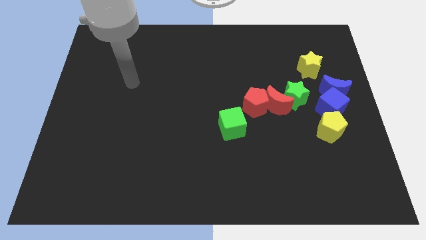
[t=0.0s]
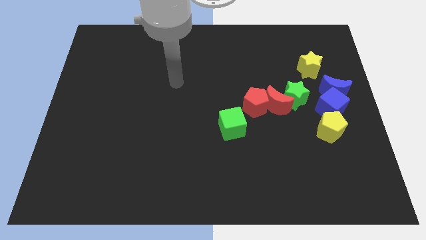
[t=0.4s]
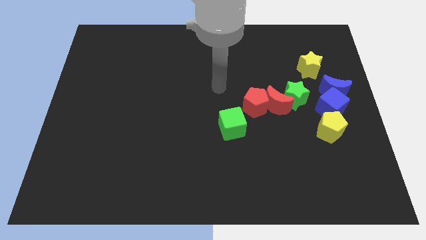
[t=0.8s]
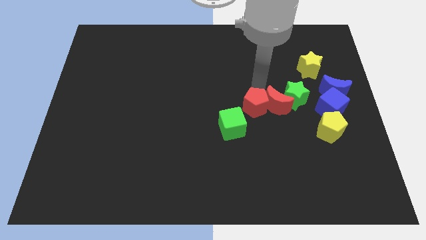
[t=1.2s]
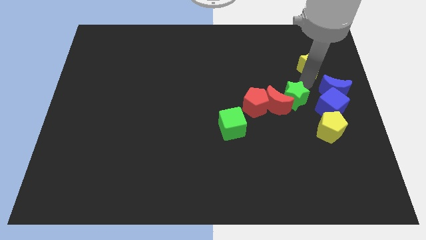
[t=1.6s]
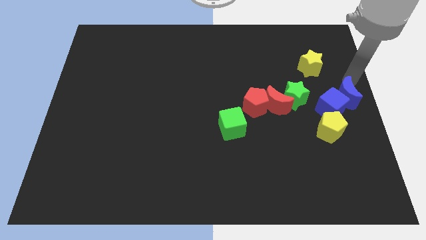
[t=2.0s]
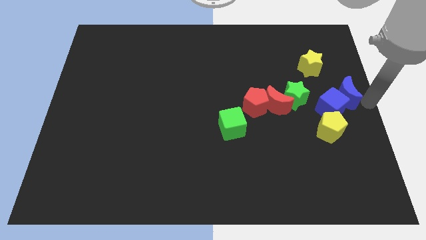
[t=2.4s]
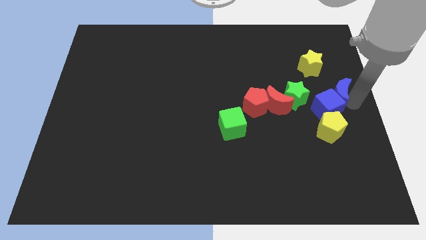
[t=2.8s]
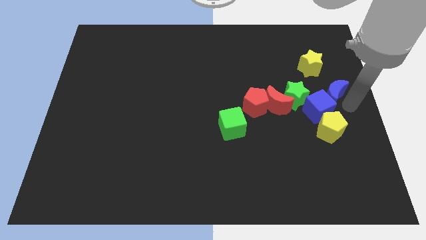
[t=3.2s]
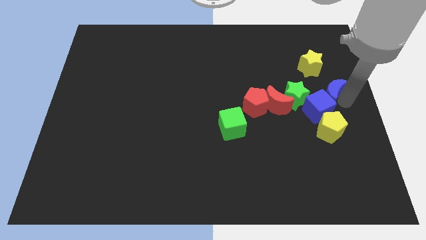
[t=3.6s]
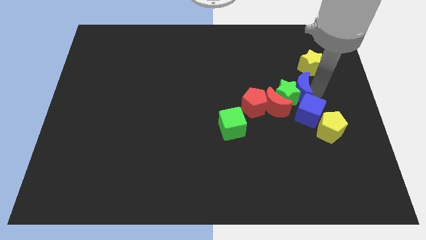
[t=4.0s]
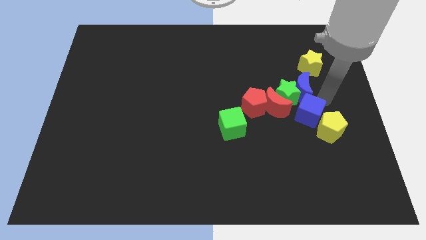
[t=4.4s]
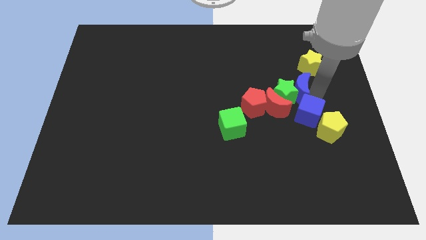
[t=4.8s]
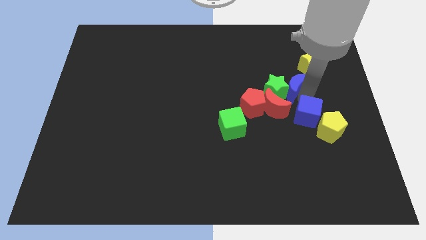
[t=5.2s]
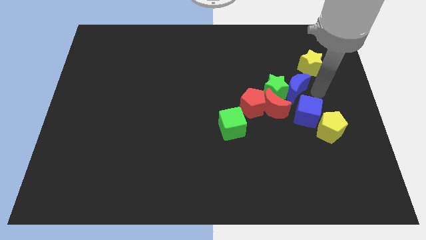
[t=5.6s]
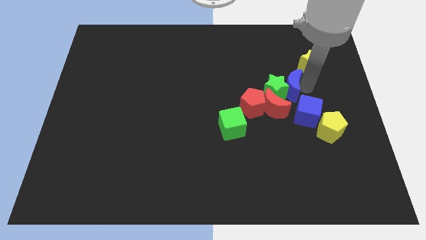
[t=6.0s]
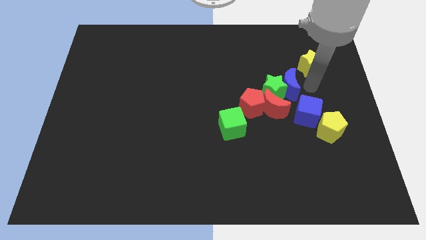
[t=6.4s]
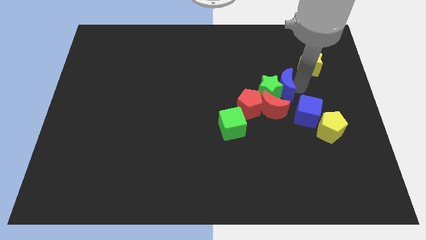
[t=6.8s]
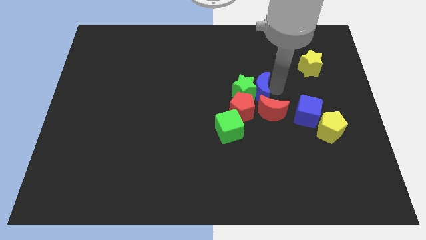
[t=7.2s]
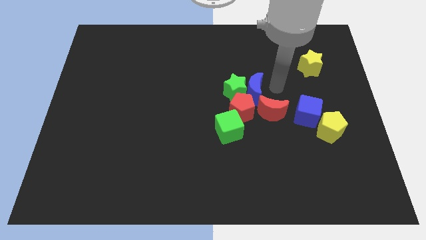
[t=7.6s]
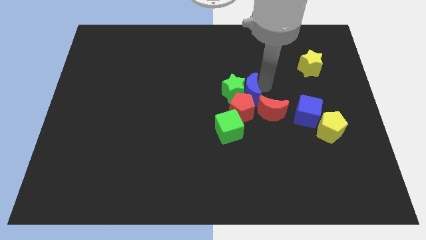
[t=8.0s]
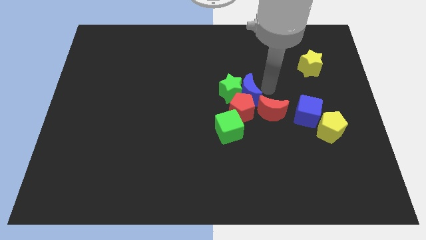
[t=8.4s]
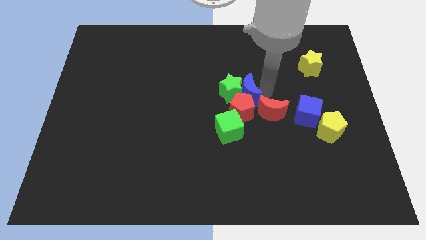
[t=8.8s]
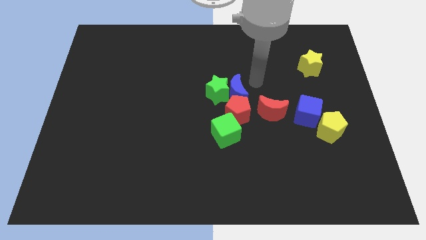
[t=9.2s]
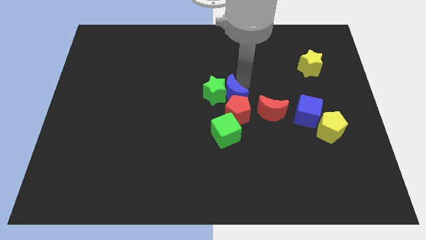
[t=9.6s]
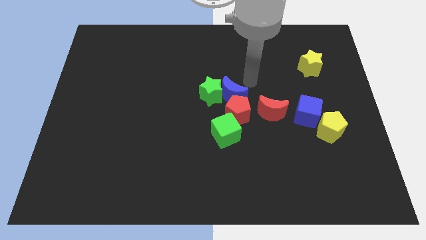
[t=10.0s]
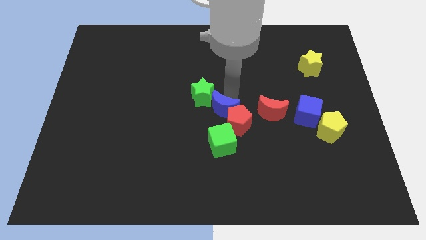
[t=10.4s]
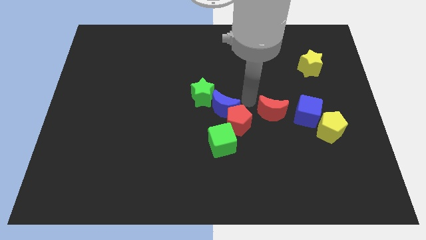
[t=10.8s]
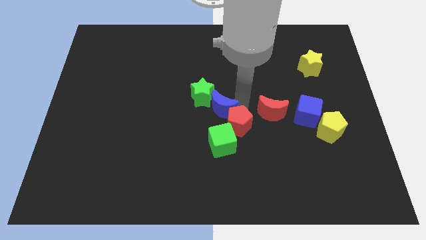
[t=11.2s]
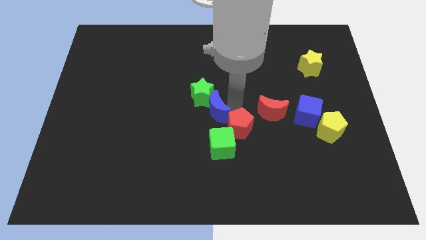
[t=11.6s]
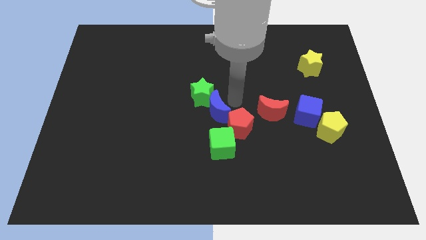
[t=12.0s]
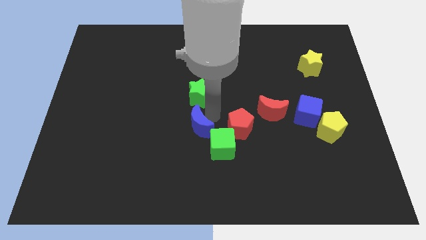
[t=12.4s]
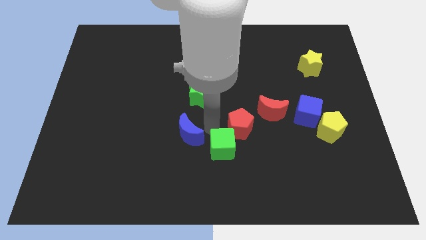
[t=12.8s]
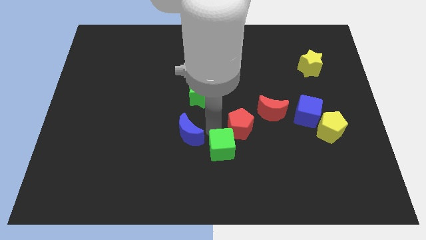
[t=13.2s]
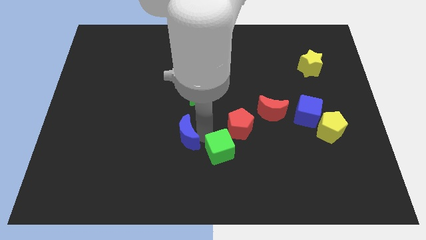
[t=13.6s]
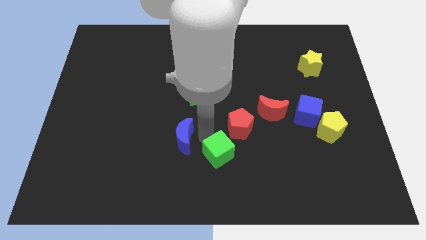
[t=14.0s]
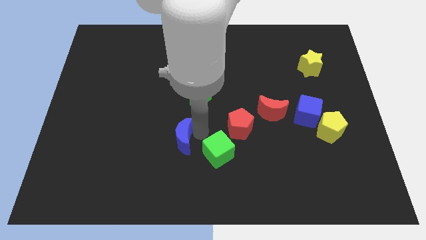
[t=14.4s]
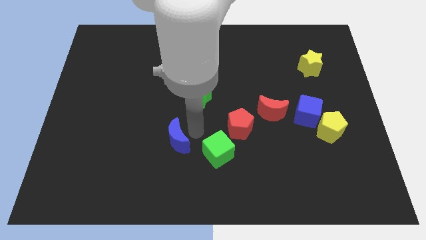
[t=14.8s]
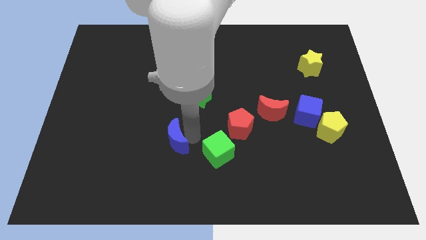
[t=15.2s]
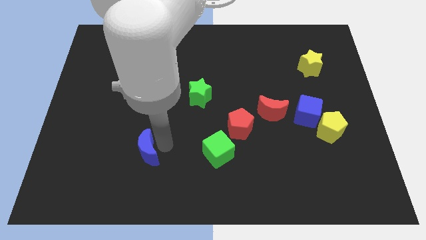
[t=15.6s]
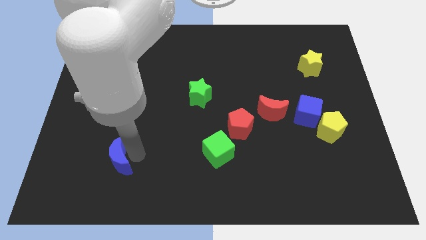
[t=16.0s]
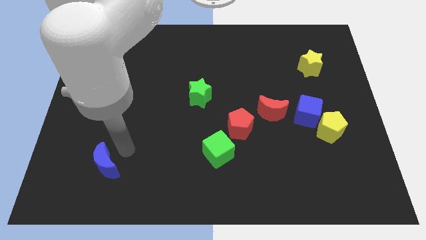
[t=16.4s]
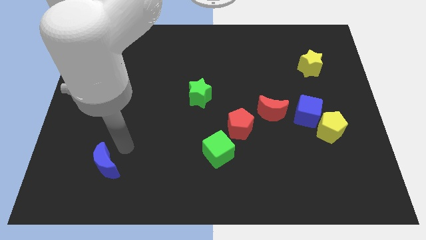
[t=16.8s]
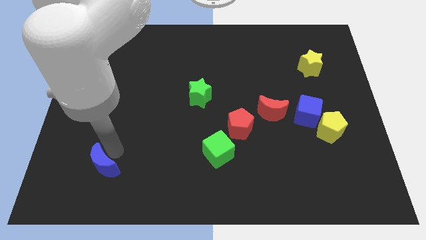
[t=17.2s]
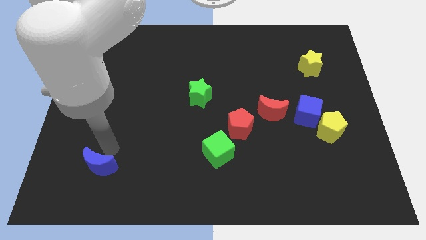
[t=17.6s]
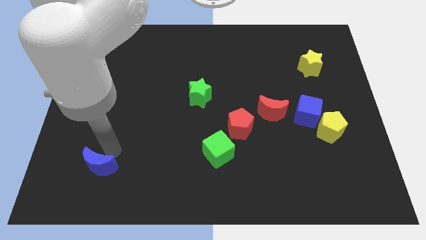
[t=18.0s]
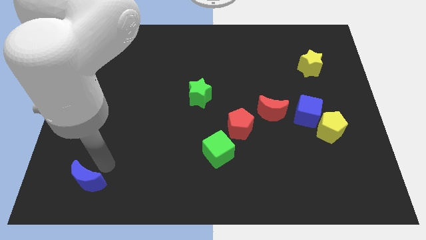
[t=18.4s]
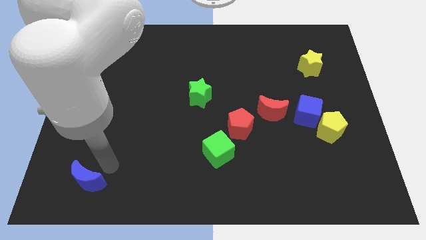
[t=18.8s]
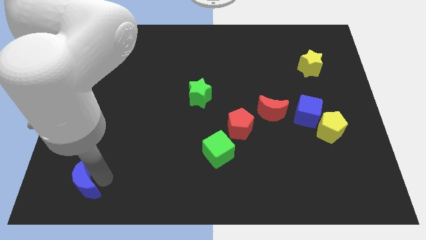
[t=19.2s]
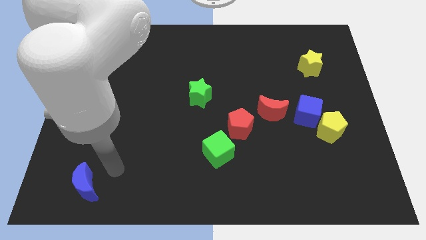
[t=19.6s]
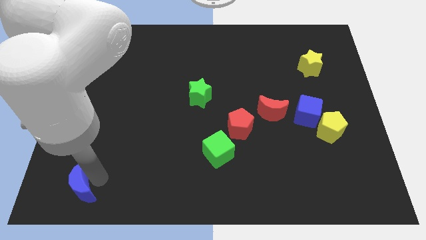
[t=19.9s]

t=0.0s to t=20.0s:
move the blue moon to the lower left corner

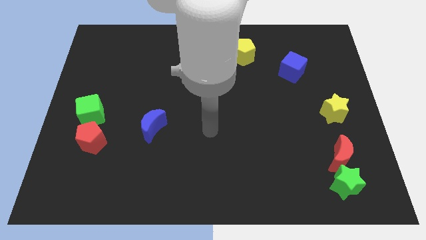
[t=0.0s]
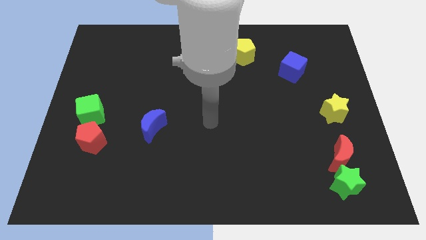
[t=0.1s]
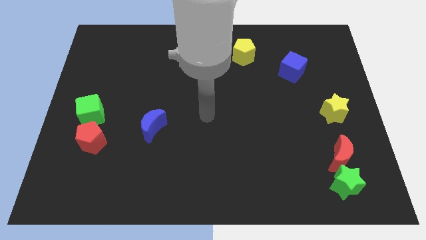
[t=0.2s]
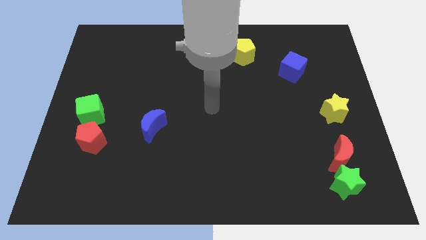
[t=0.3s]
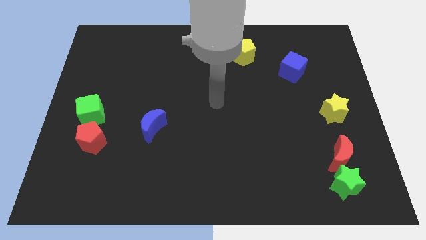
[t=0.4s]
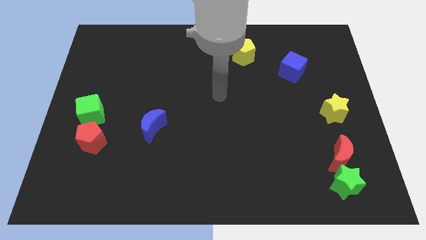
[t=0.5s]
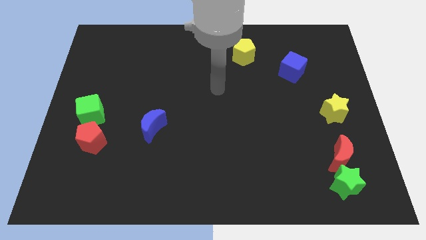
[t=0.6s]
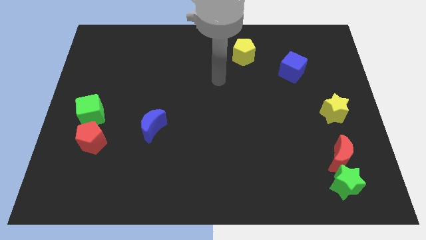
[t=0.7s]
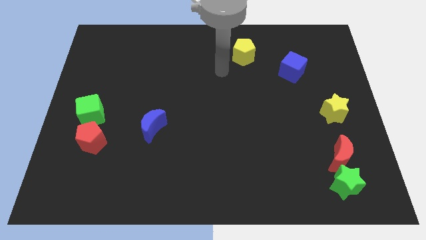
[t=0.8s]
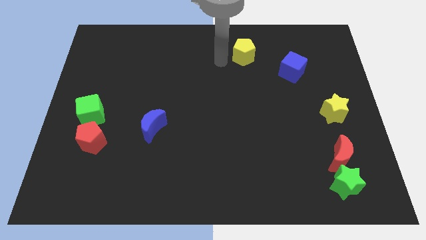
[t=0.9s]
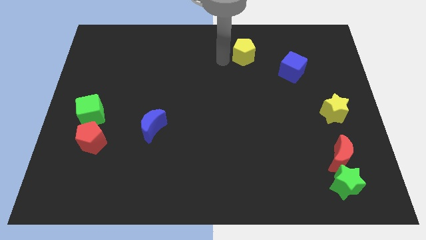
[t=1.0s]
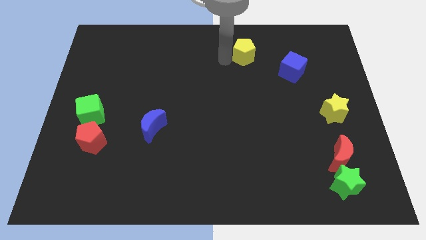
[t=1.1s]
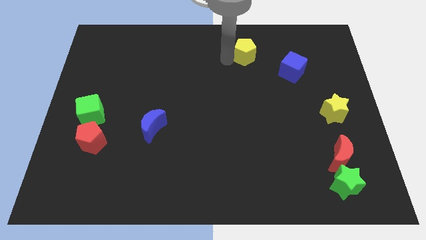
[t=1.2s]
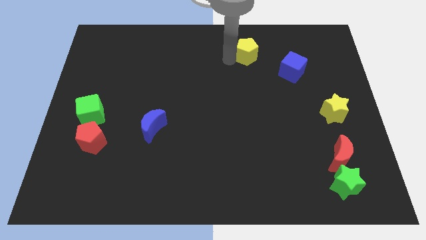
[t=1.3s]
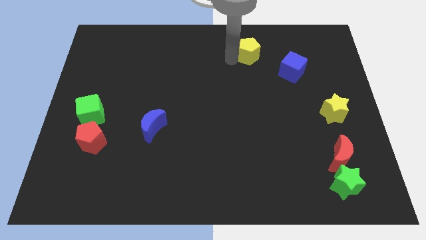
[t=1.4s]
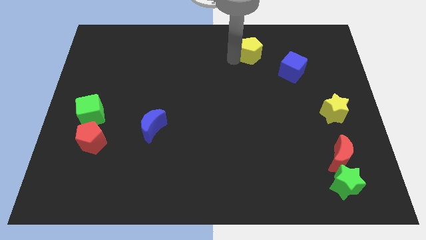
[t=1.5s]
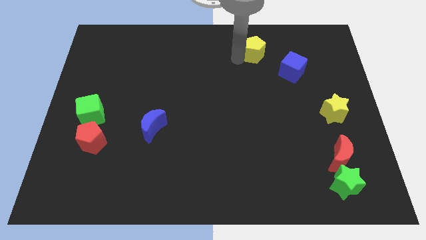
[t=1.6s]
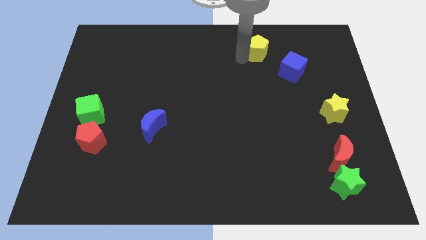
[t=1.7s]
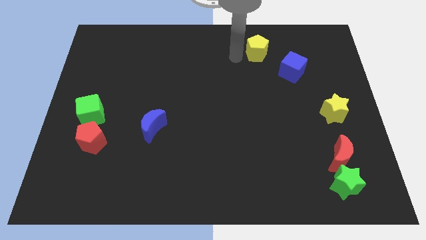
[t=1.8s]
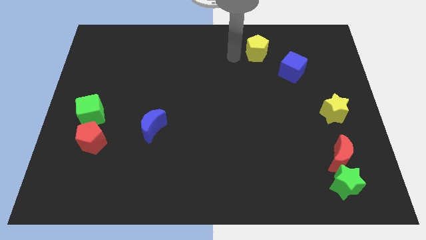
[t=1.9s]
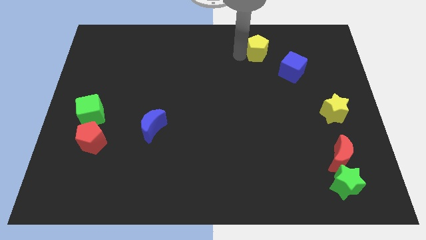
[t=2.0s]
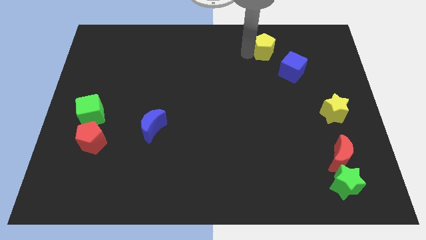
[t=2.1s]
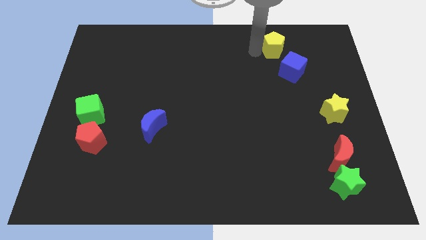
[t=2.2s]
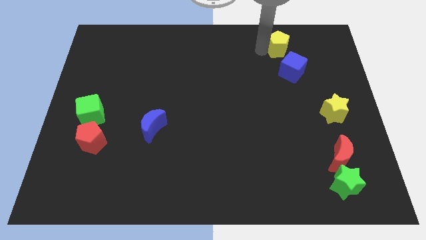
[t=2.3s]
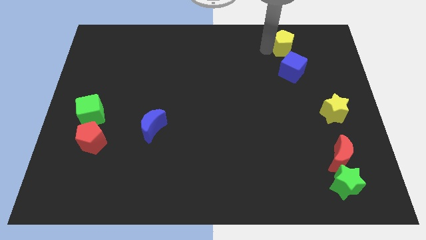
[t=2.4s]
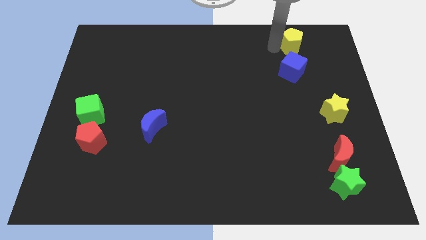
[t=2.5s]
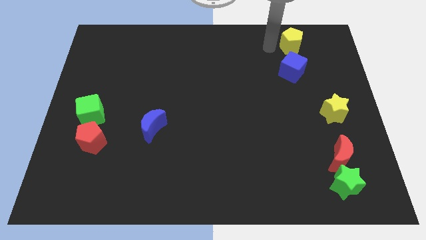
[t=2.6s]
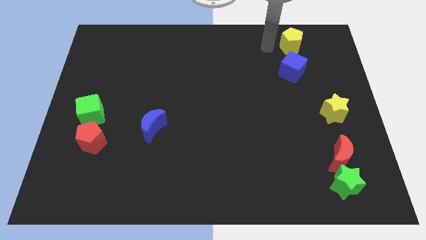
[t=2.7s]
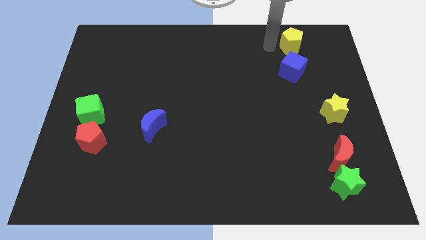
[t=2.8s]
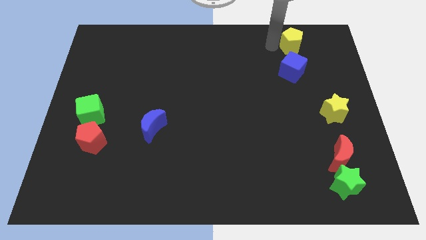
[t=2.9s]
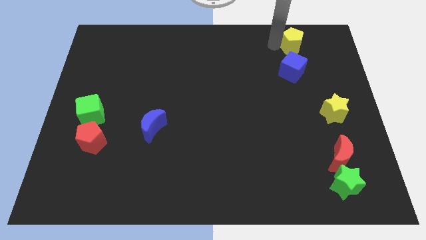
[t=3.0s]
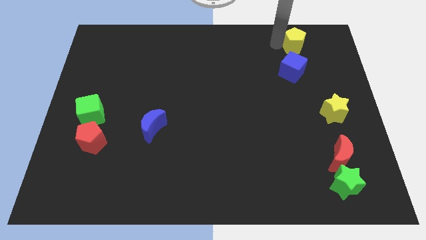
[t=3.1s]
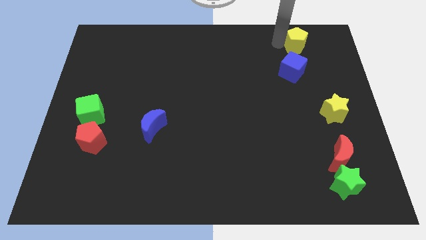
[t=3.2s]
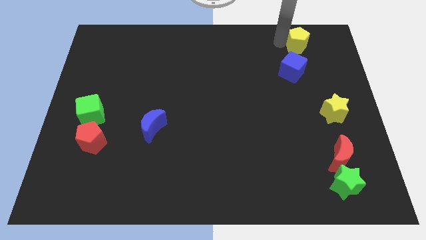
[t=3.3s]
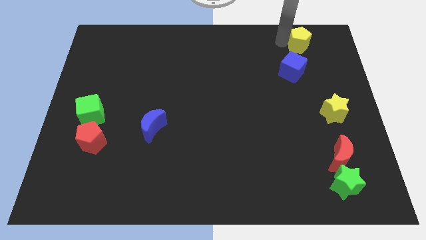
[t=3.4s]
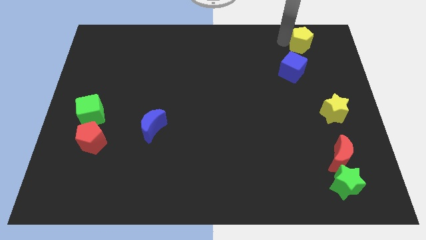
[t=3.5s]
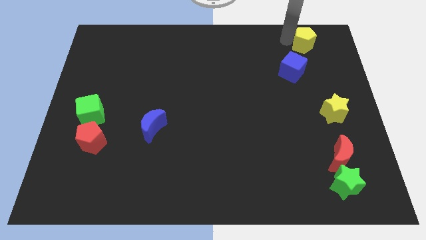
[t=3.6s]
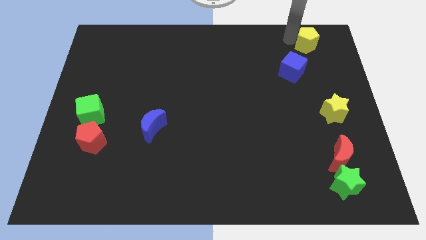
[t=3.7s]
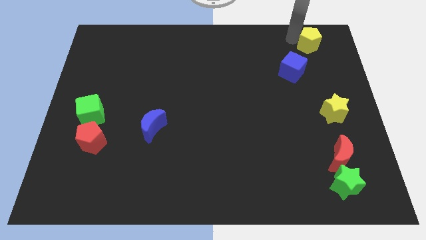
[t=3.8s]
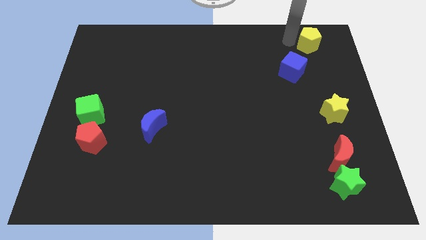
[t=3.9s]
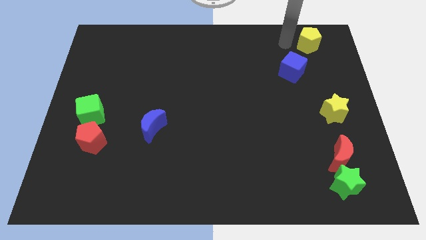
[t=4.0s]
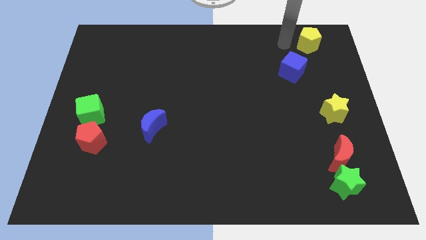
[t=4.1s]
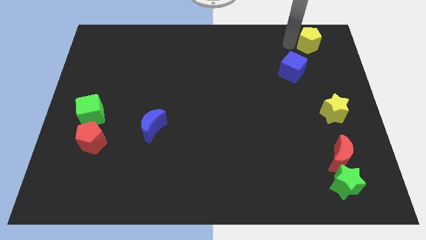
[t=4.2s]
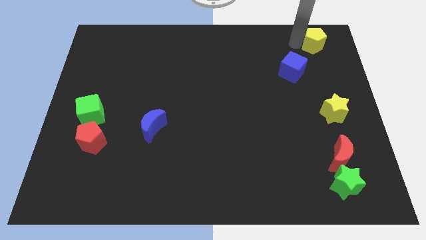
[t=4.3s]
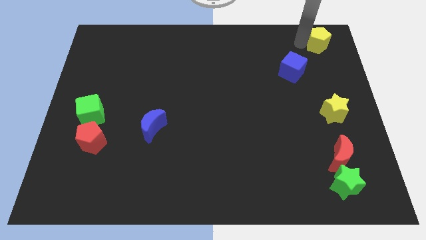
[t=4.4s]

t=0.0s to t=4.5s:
push the yellow pentagon to the top right of the board
